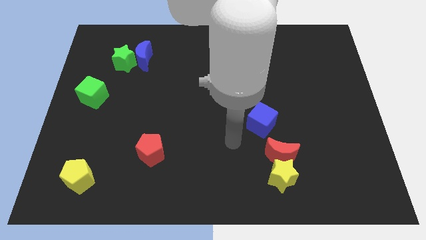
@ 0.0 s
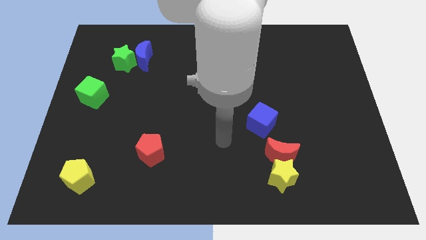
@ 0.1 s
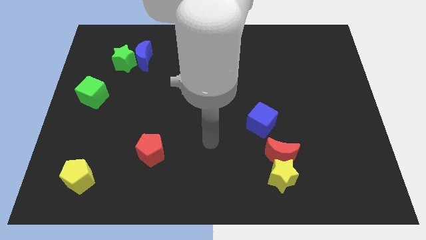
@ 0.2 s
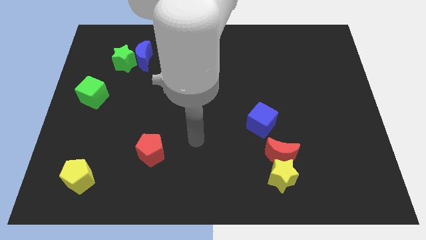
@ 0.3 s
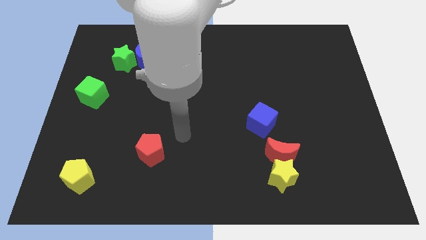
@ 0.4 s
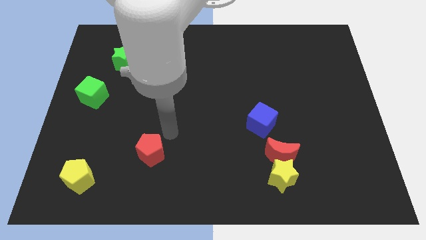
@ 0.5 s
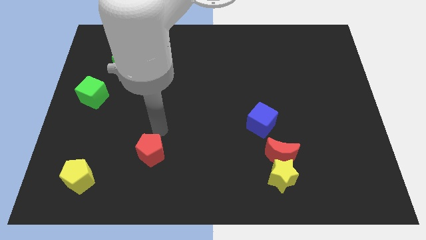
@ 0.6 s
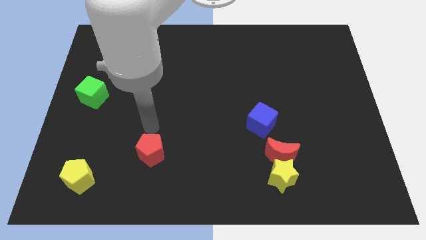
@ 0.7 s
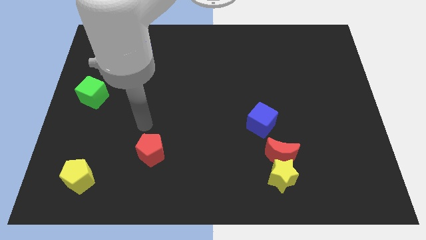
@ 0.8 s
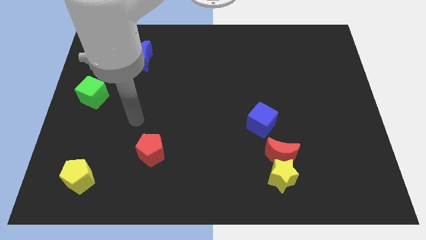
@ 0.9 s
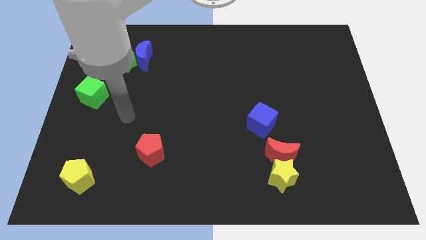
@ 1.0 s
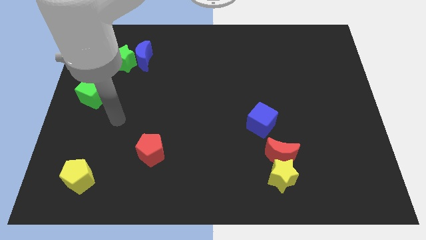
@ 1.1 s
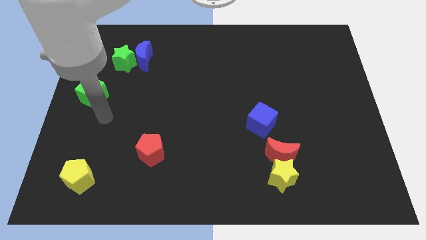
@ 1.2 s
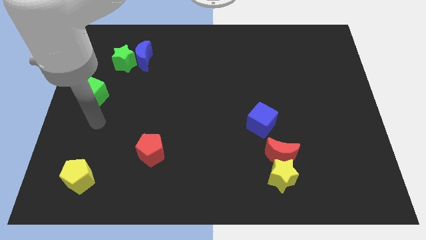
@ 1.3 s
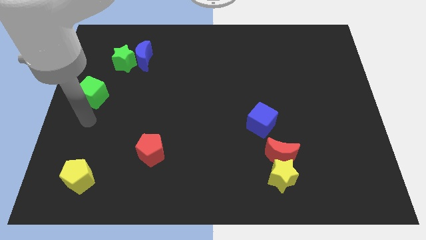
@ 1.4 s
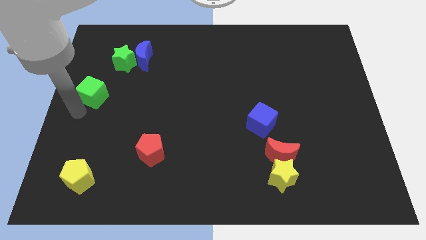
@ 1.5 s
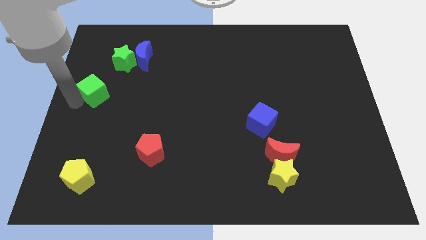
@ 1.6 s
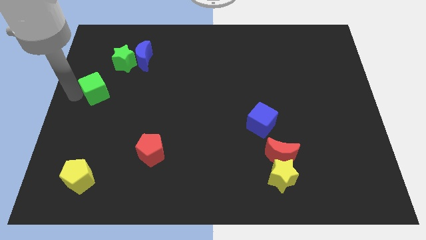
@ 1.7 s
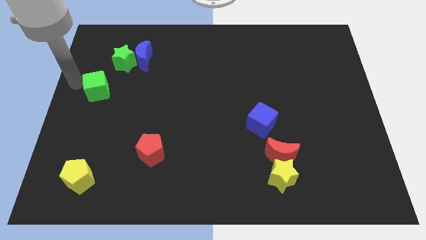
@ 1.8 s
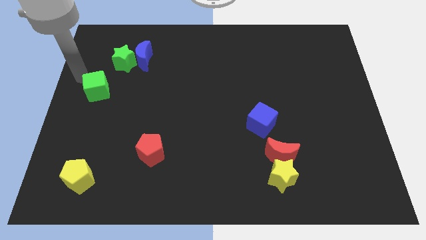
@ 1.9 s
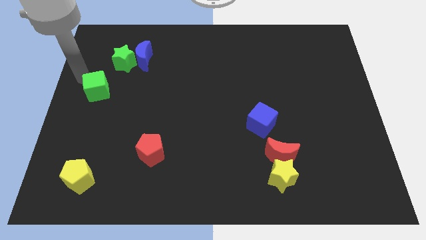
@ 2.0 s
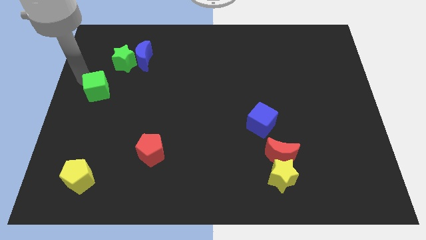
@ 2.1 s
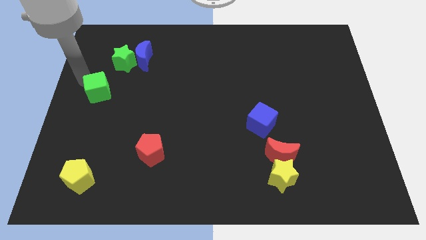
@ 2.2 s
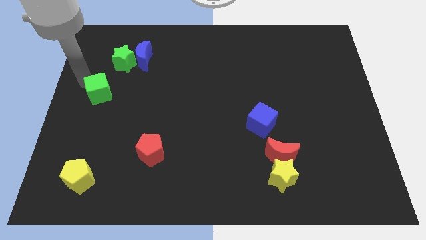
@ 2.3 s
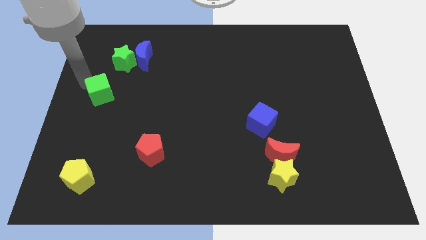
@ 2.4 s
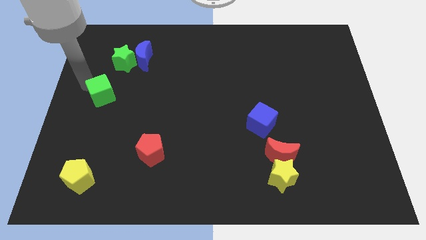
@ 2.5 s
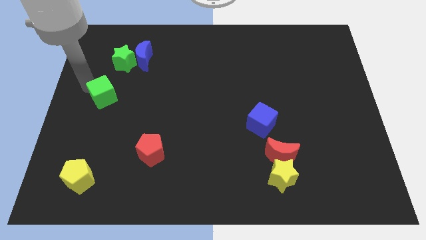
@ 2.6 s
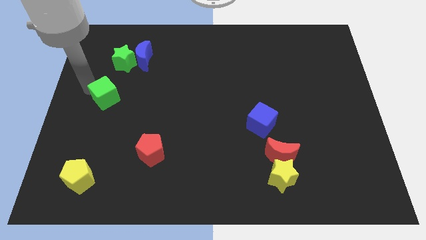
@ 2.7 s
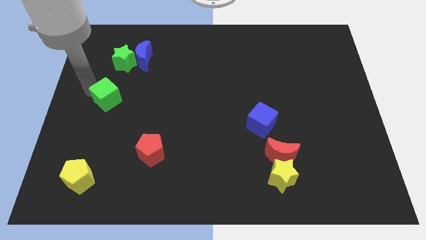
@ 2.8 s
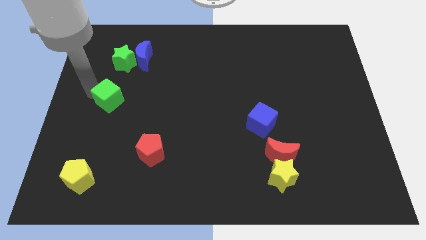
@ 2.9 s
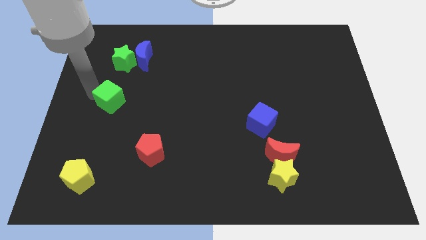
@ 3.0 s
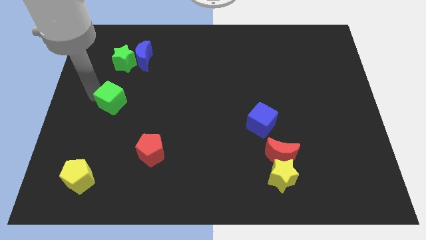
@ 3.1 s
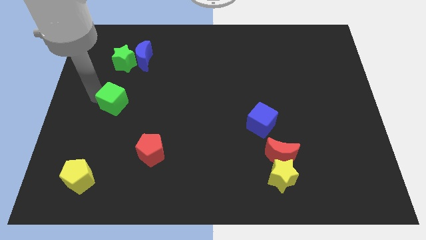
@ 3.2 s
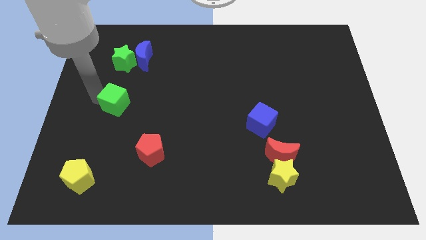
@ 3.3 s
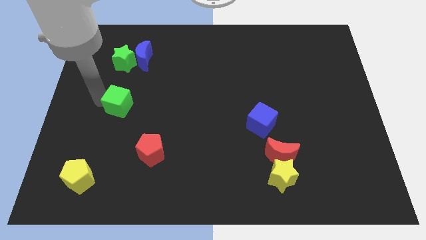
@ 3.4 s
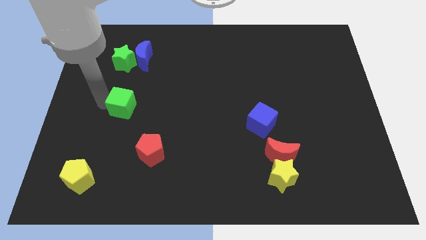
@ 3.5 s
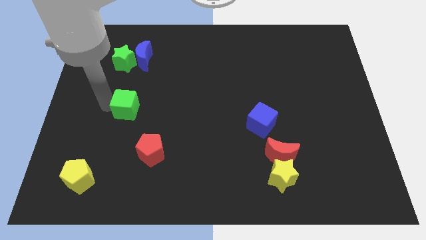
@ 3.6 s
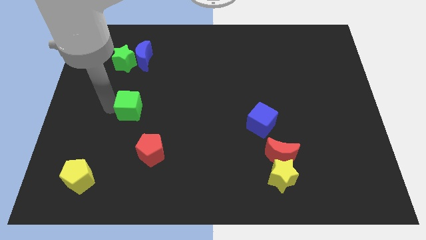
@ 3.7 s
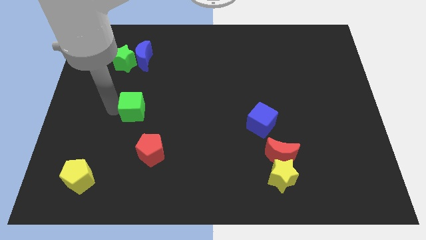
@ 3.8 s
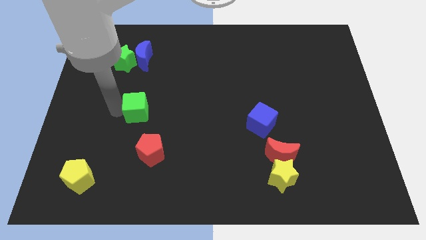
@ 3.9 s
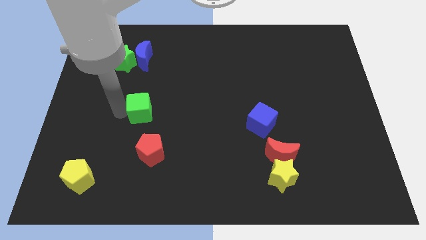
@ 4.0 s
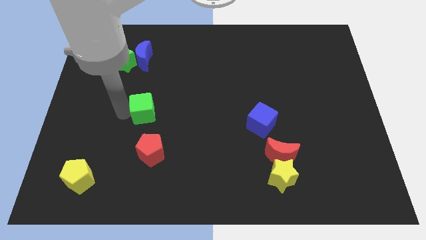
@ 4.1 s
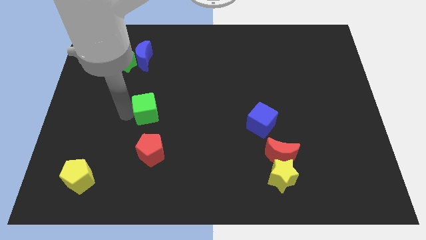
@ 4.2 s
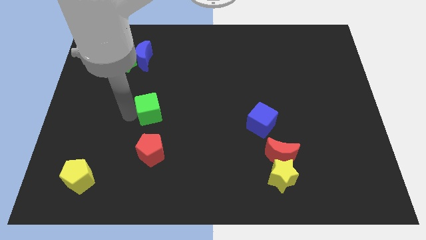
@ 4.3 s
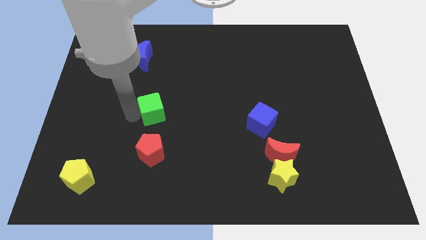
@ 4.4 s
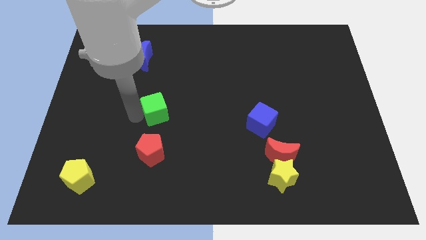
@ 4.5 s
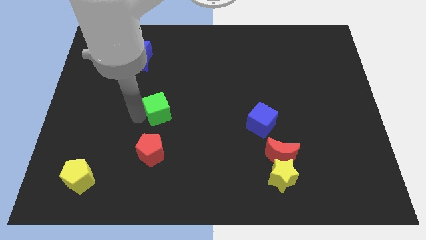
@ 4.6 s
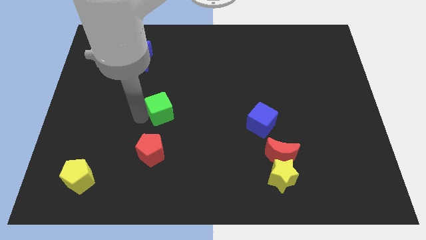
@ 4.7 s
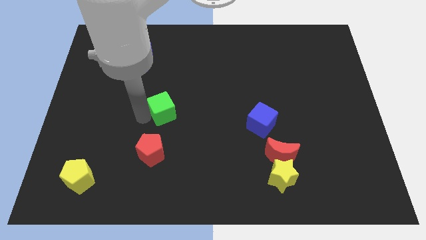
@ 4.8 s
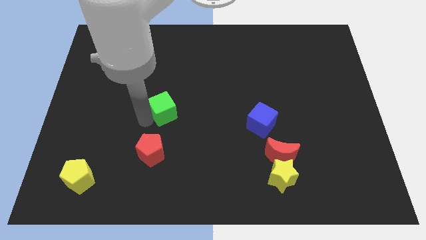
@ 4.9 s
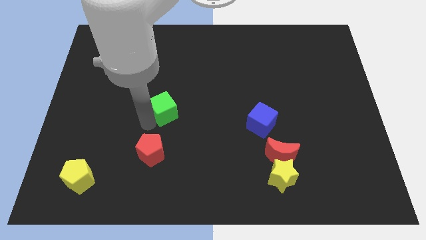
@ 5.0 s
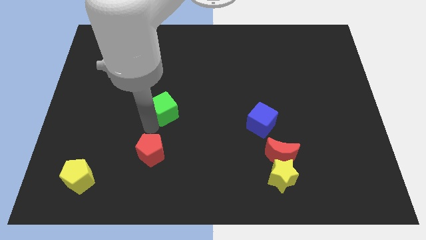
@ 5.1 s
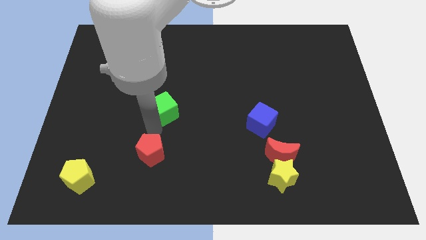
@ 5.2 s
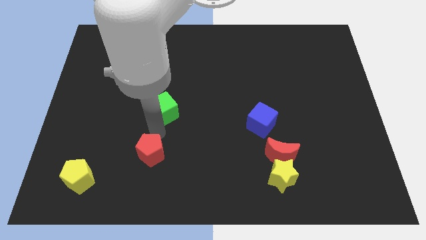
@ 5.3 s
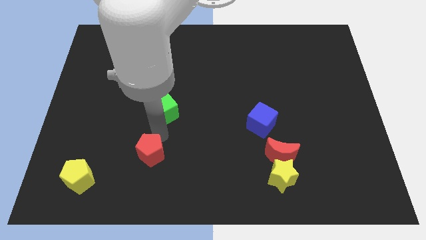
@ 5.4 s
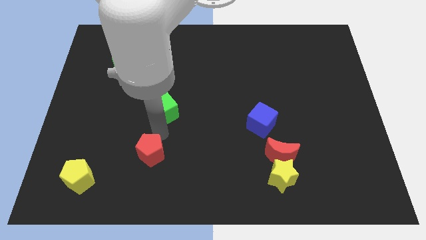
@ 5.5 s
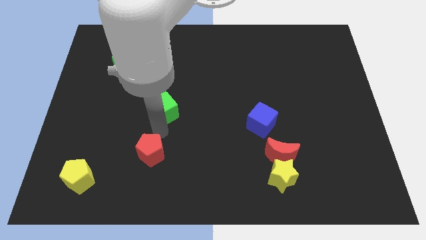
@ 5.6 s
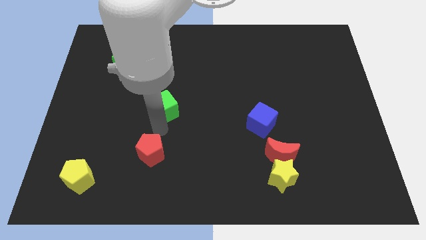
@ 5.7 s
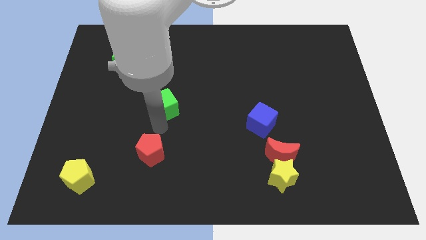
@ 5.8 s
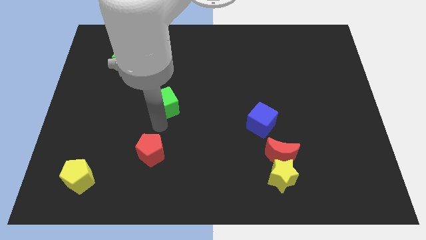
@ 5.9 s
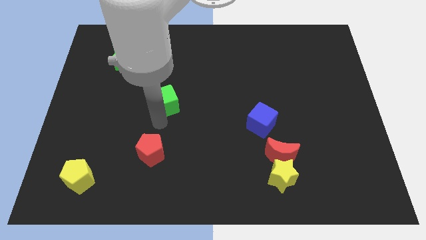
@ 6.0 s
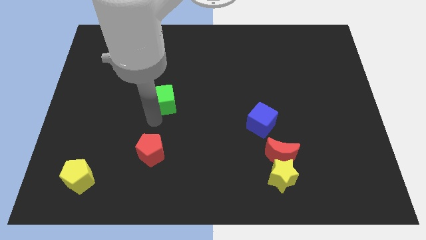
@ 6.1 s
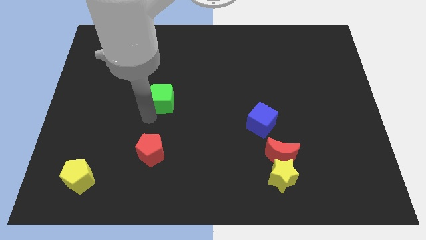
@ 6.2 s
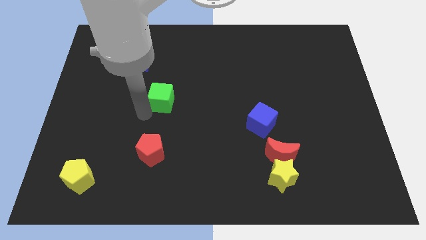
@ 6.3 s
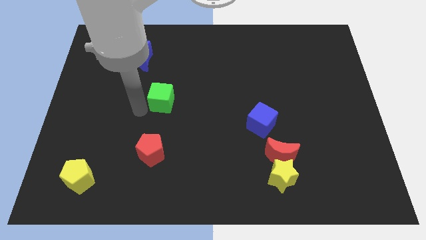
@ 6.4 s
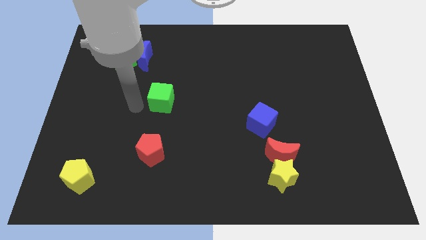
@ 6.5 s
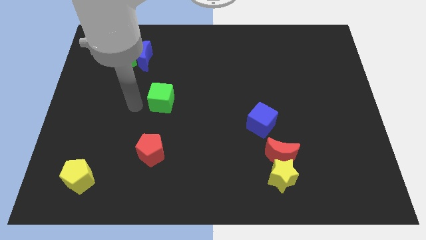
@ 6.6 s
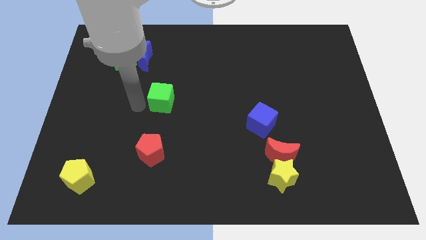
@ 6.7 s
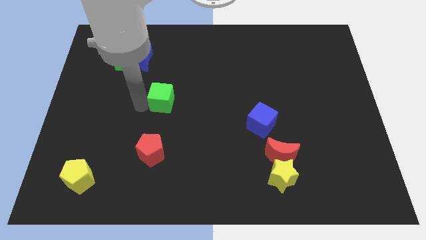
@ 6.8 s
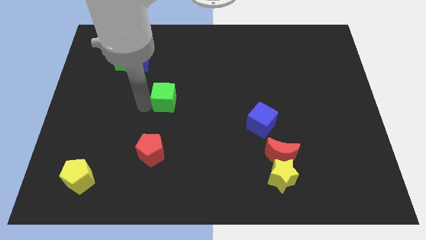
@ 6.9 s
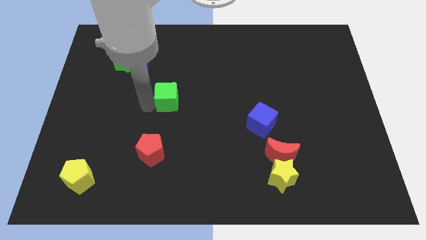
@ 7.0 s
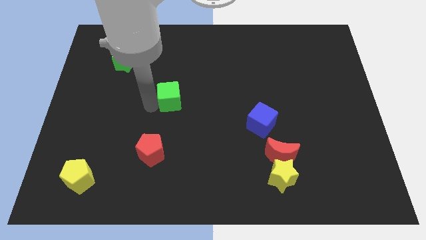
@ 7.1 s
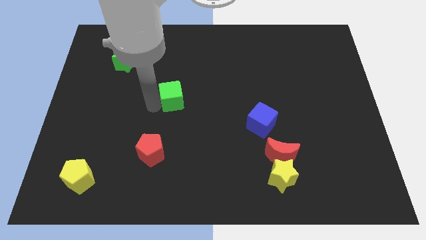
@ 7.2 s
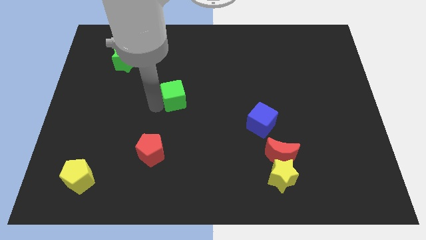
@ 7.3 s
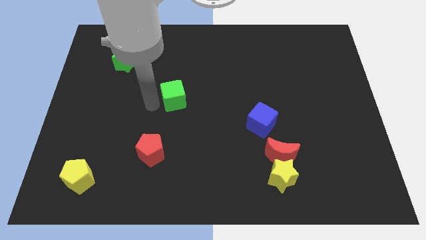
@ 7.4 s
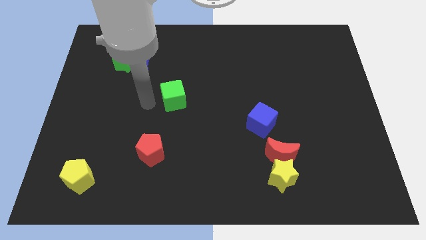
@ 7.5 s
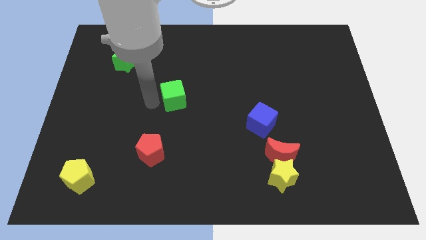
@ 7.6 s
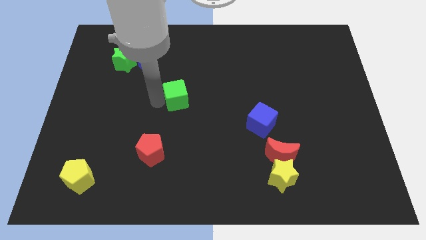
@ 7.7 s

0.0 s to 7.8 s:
slide the green cube to the right
